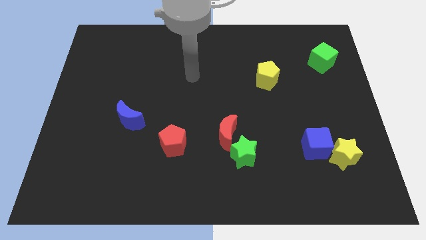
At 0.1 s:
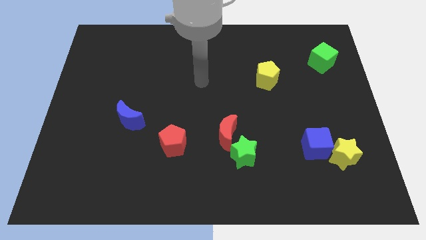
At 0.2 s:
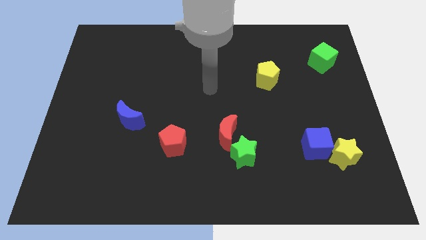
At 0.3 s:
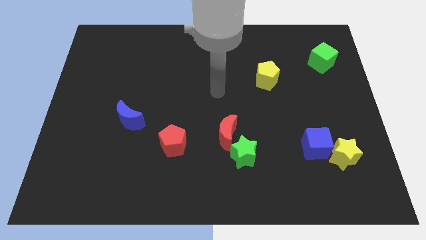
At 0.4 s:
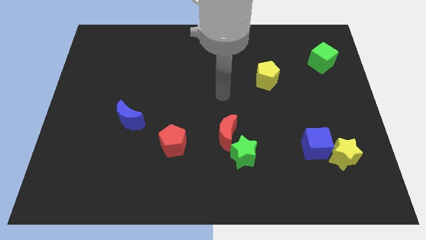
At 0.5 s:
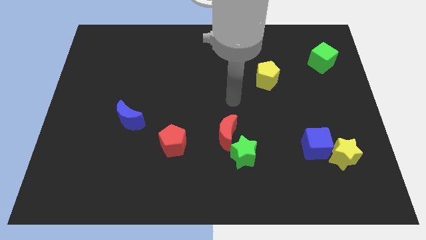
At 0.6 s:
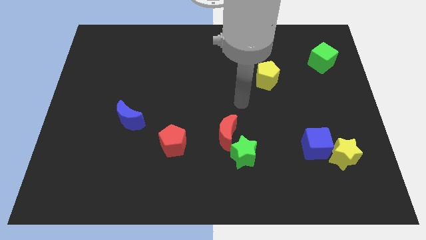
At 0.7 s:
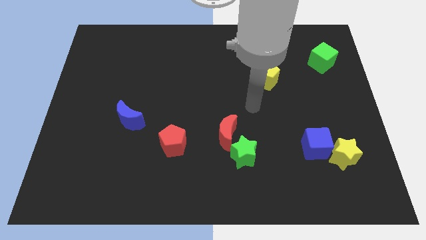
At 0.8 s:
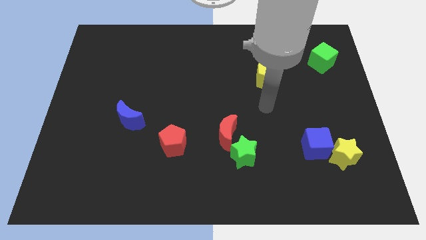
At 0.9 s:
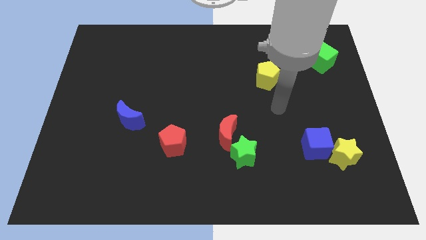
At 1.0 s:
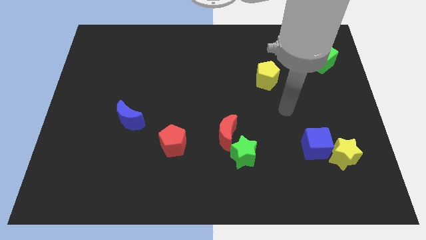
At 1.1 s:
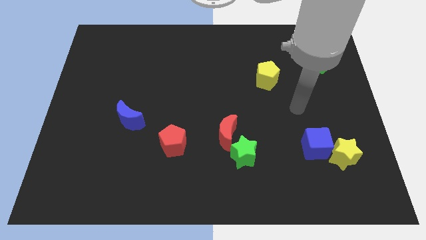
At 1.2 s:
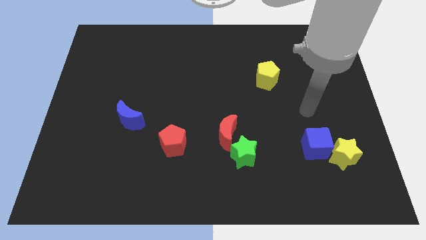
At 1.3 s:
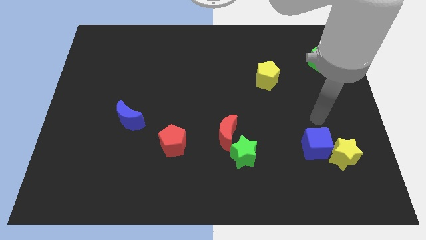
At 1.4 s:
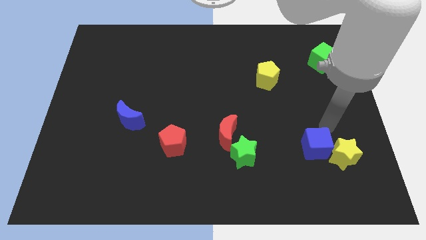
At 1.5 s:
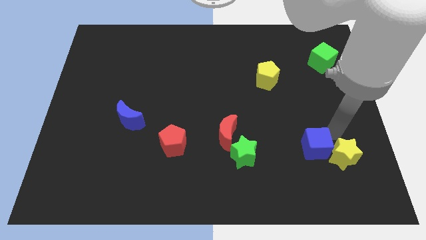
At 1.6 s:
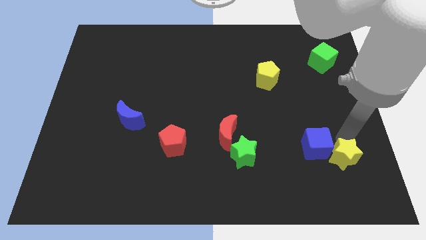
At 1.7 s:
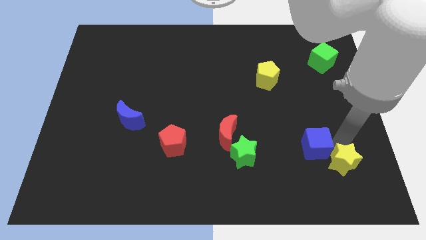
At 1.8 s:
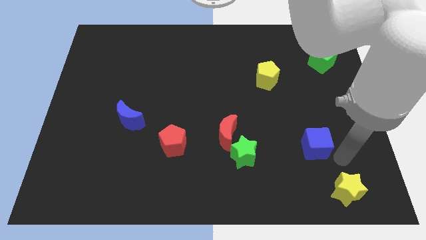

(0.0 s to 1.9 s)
separate the blue cube from the yellow star

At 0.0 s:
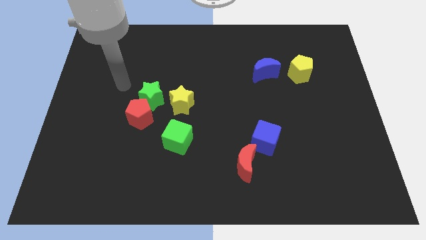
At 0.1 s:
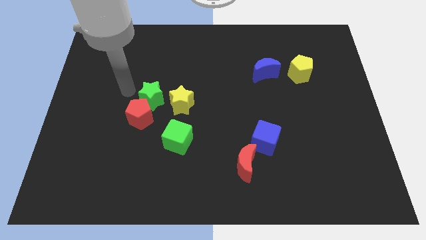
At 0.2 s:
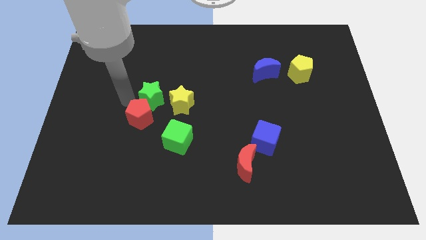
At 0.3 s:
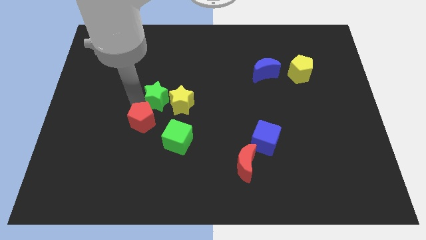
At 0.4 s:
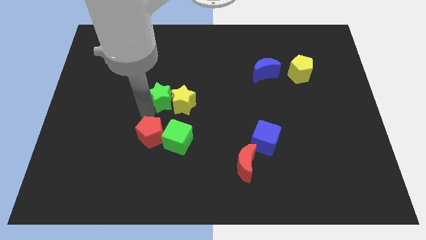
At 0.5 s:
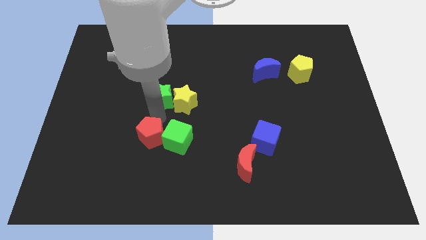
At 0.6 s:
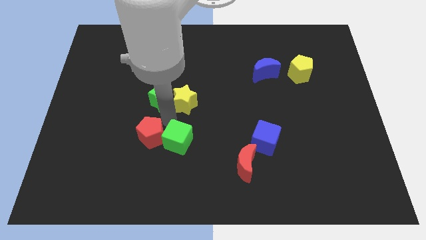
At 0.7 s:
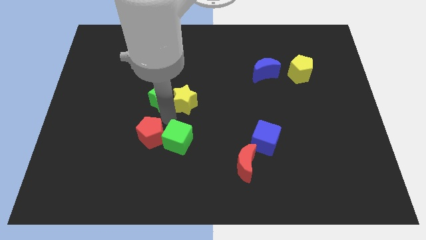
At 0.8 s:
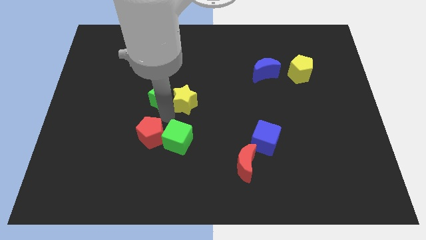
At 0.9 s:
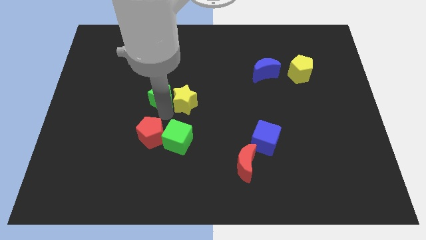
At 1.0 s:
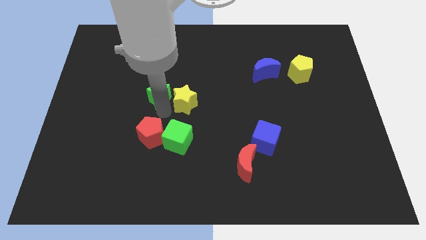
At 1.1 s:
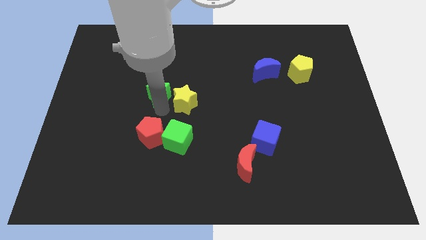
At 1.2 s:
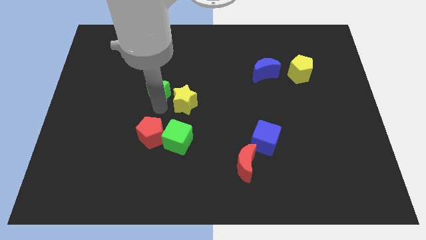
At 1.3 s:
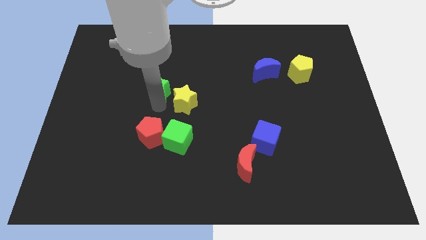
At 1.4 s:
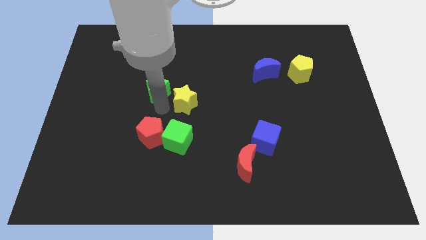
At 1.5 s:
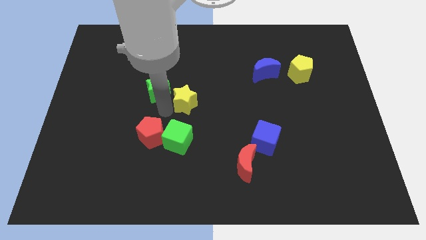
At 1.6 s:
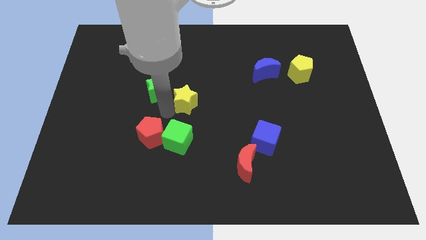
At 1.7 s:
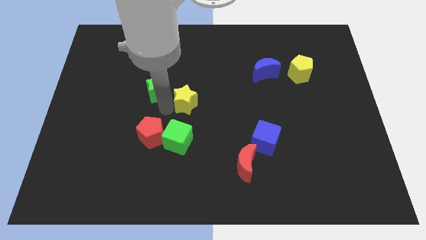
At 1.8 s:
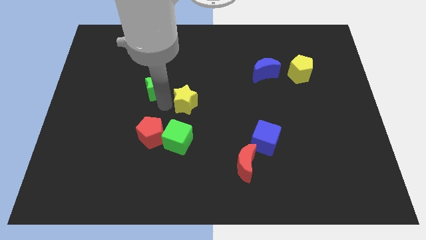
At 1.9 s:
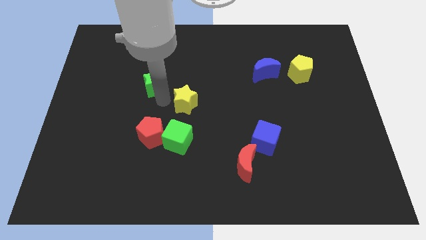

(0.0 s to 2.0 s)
separate the green star from the red pentagon and yellow star

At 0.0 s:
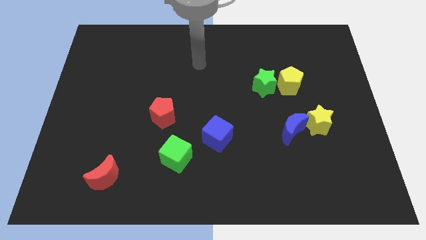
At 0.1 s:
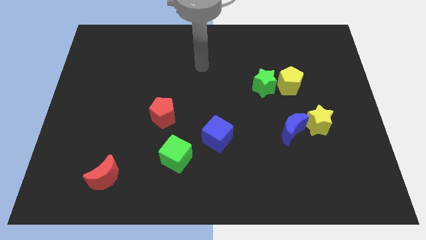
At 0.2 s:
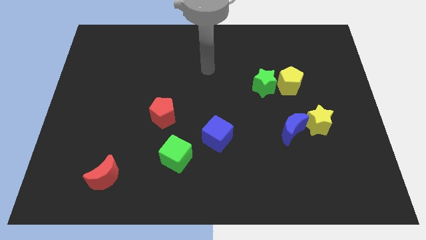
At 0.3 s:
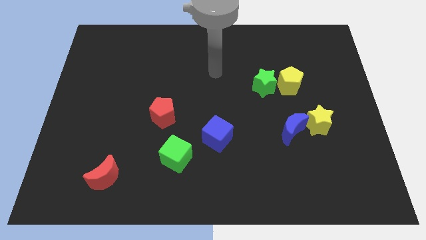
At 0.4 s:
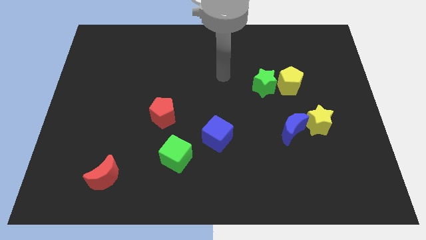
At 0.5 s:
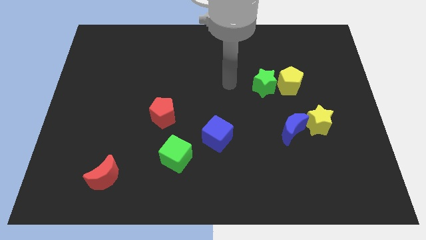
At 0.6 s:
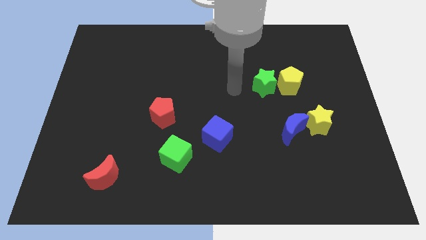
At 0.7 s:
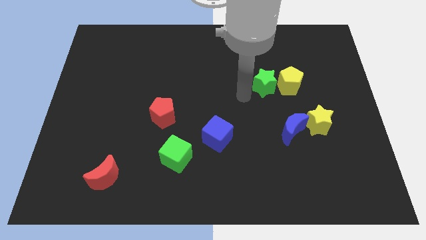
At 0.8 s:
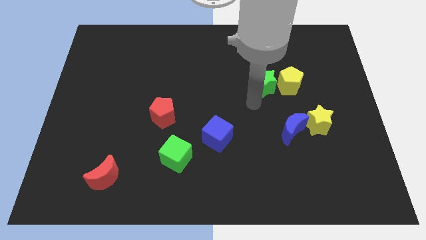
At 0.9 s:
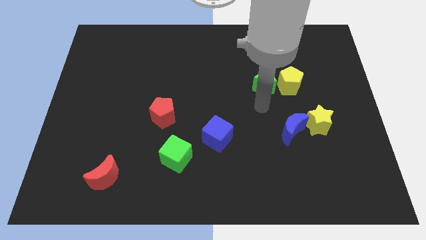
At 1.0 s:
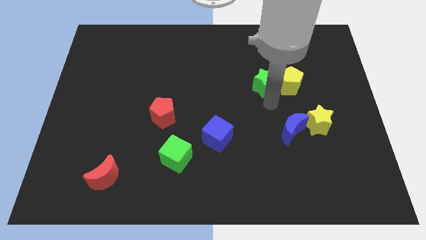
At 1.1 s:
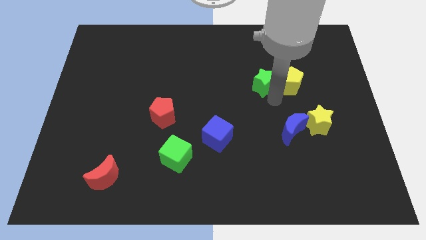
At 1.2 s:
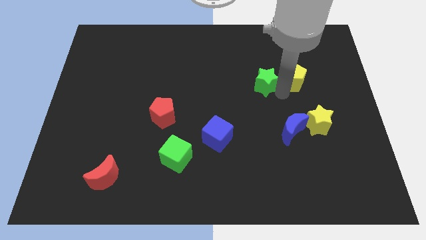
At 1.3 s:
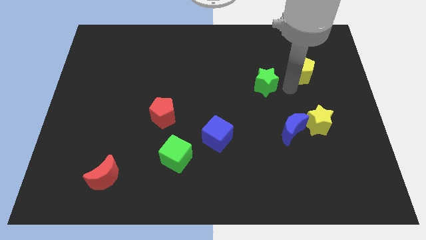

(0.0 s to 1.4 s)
separate the green star from the yellow pentagon

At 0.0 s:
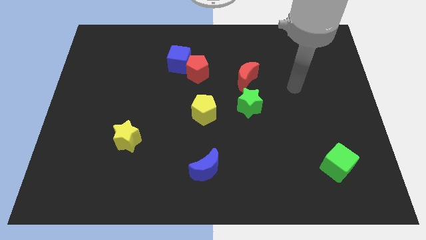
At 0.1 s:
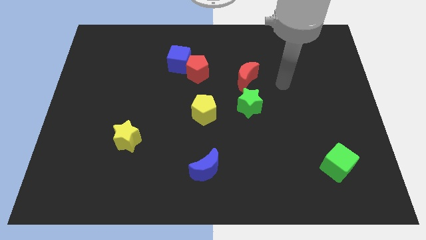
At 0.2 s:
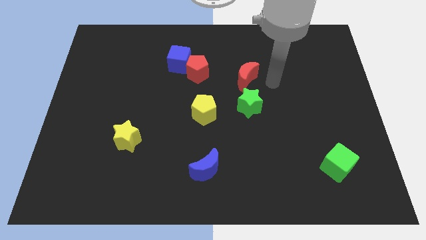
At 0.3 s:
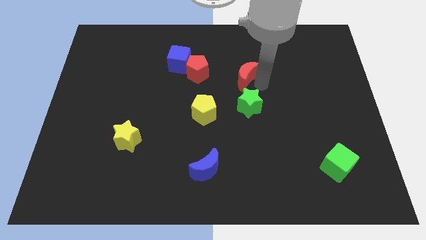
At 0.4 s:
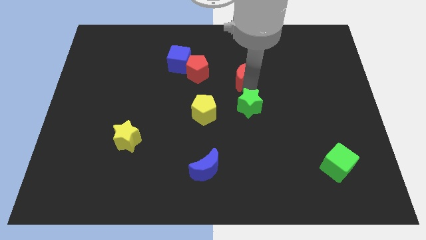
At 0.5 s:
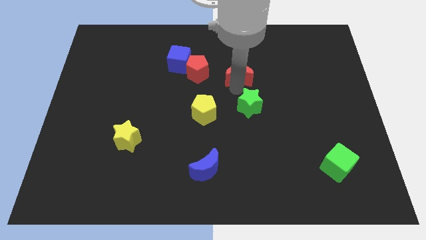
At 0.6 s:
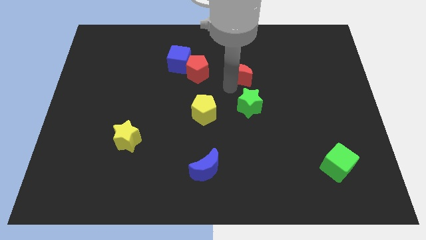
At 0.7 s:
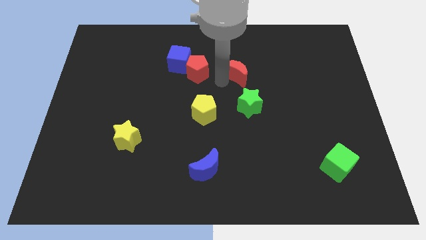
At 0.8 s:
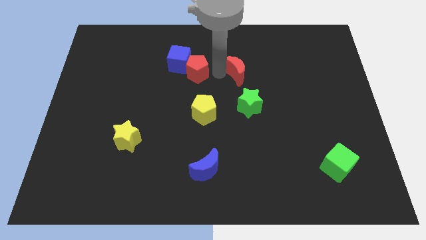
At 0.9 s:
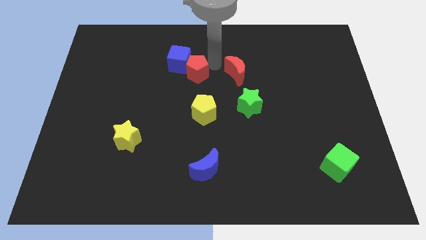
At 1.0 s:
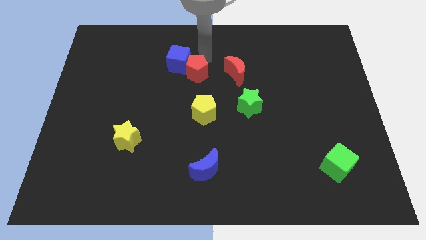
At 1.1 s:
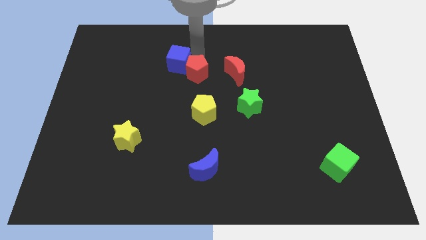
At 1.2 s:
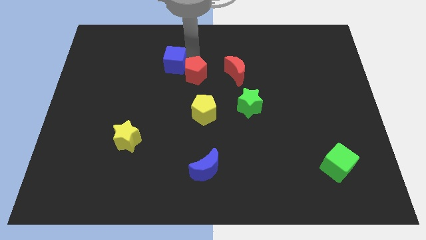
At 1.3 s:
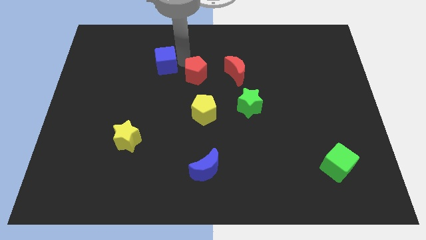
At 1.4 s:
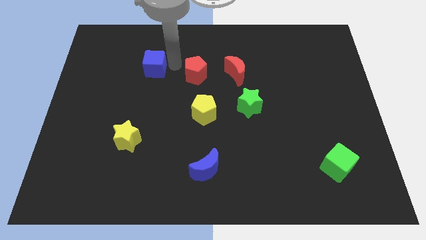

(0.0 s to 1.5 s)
pull the red pentagon apart from the blue cube

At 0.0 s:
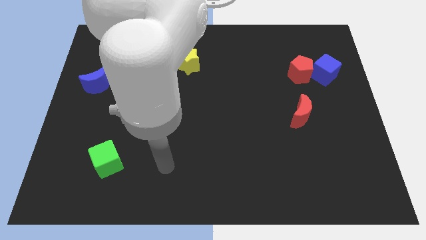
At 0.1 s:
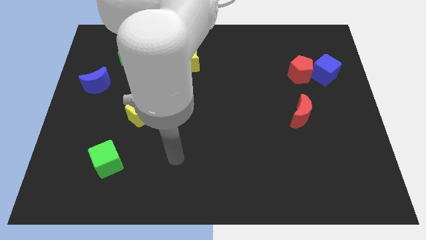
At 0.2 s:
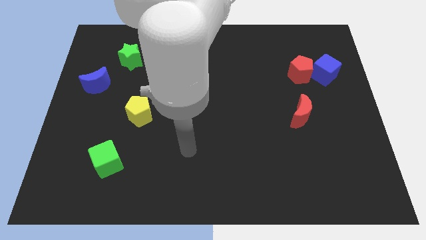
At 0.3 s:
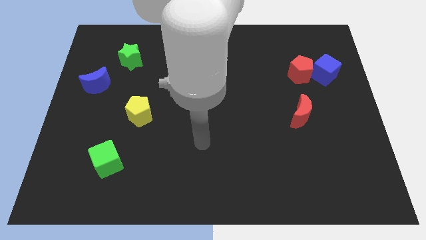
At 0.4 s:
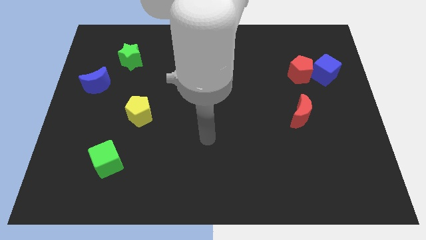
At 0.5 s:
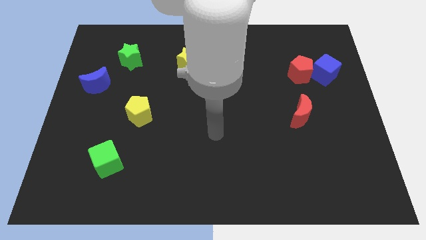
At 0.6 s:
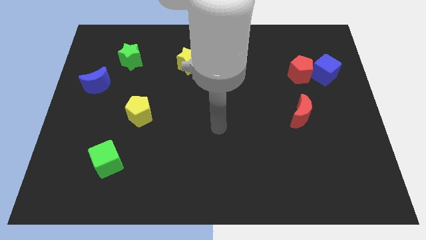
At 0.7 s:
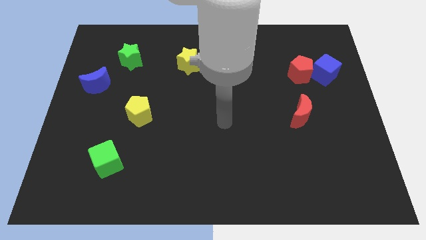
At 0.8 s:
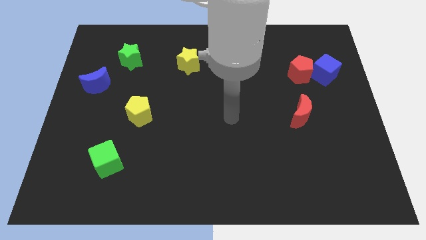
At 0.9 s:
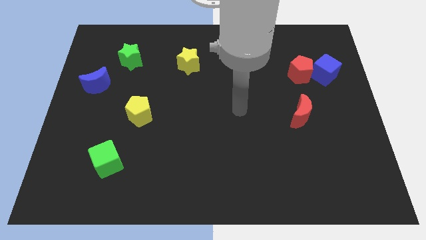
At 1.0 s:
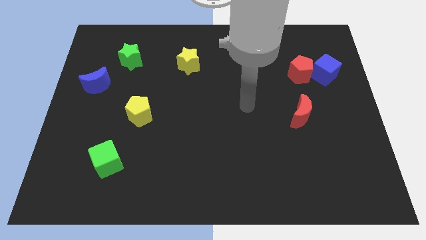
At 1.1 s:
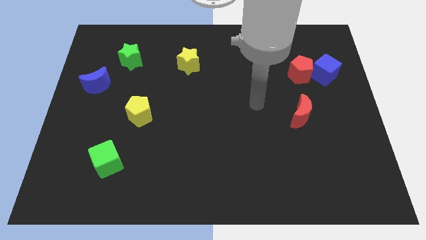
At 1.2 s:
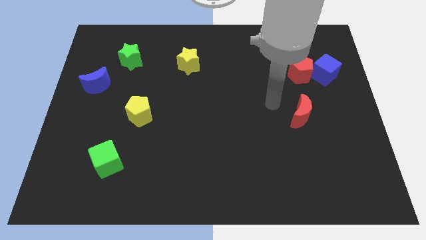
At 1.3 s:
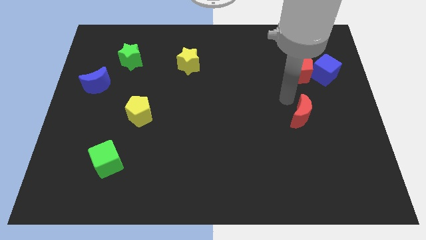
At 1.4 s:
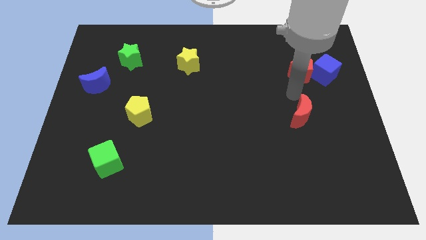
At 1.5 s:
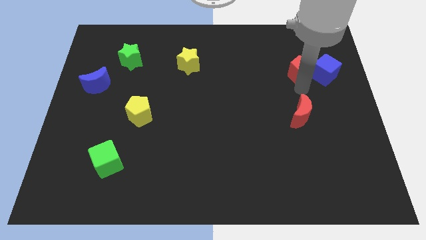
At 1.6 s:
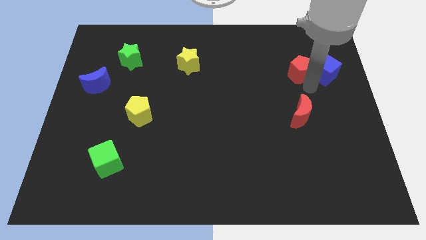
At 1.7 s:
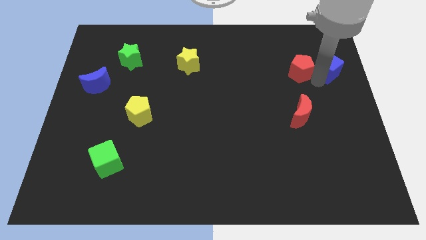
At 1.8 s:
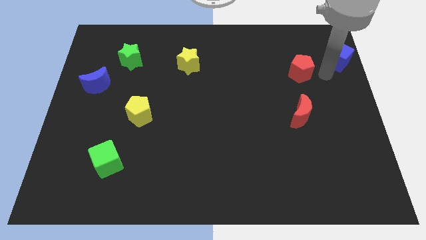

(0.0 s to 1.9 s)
move the red pentagon away from the blue cube

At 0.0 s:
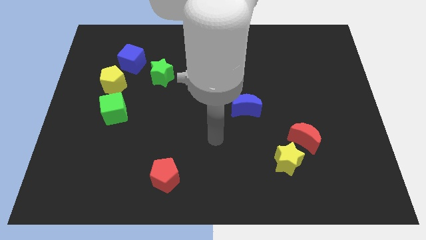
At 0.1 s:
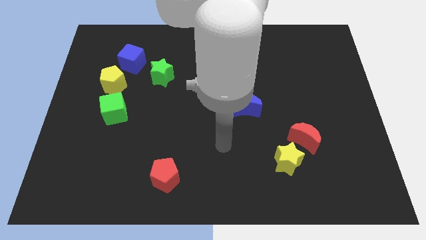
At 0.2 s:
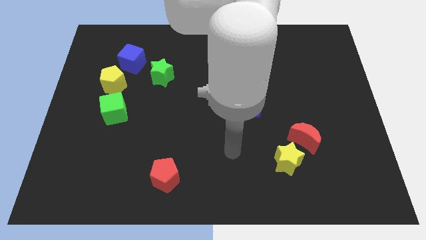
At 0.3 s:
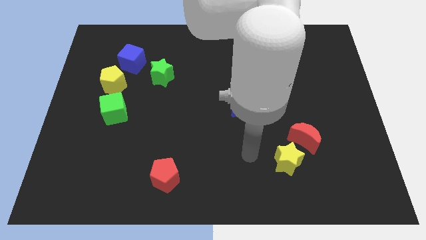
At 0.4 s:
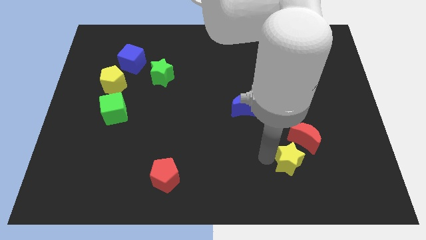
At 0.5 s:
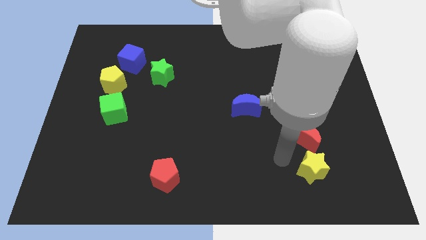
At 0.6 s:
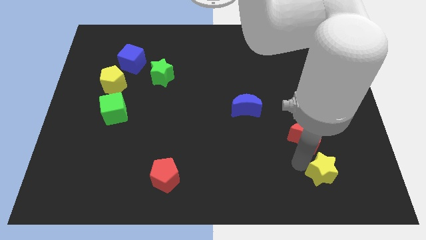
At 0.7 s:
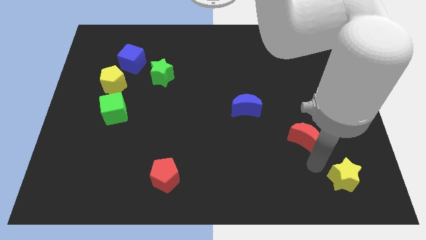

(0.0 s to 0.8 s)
separate the red moon from the yellow star
